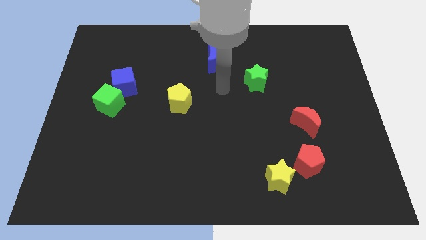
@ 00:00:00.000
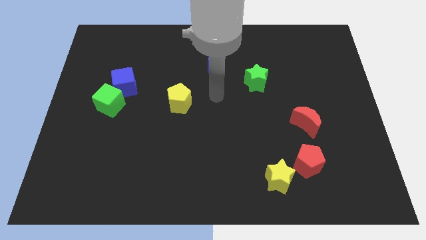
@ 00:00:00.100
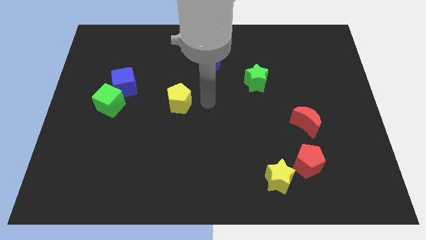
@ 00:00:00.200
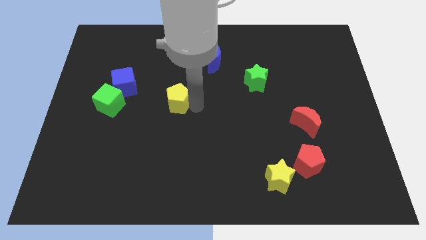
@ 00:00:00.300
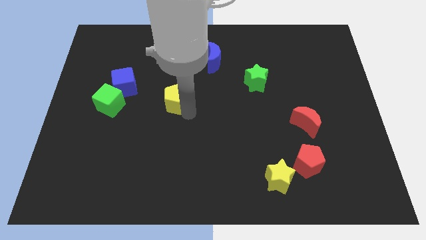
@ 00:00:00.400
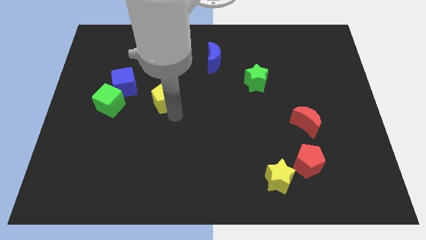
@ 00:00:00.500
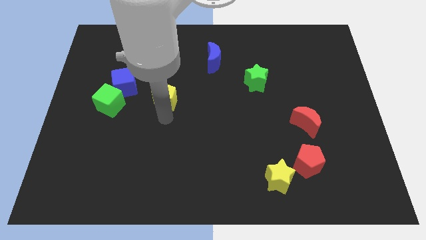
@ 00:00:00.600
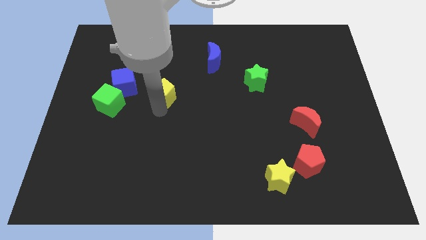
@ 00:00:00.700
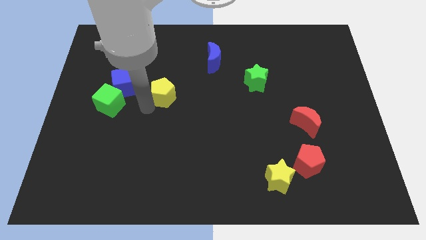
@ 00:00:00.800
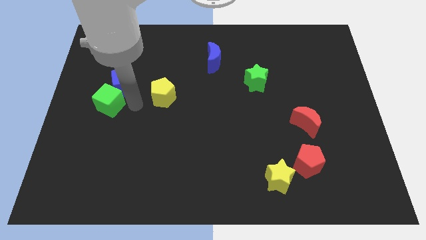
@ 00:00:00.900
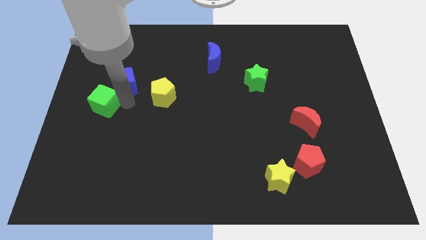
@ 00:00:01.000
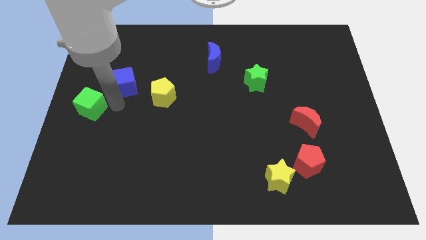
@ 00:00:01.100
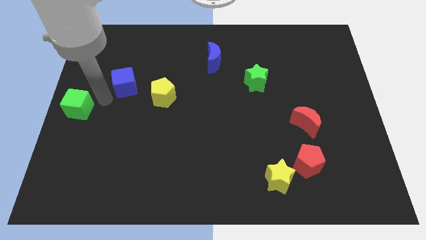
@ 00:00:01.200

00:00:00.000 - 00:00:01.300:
separate the blue cube from the green cube

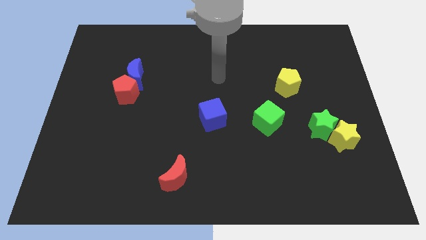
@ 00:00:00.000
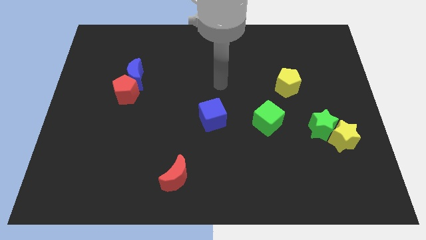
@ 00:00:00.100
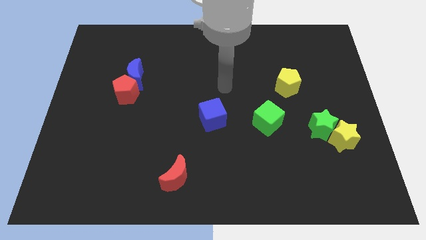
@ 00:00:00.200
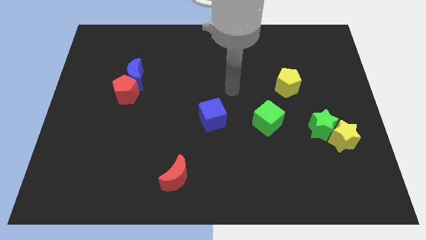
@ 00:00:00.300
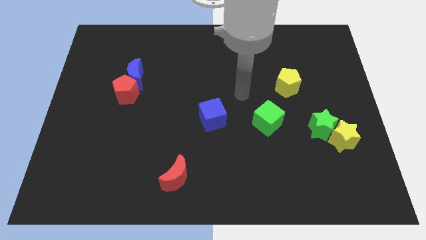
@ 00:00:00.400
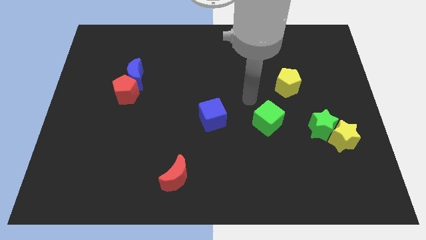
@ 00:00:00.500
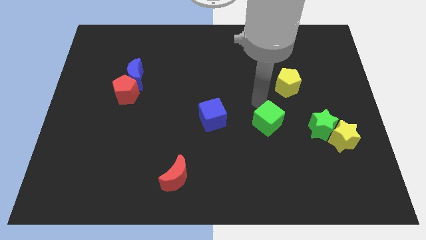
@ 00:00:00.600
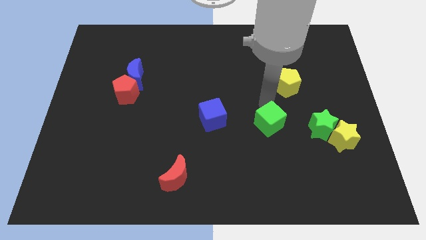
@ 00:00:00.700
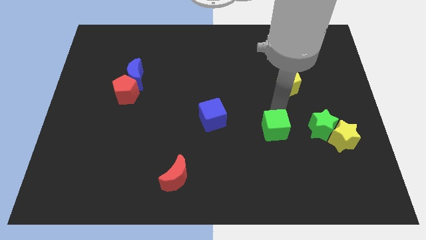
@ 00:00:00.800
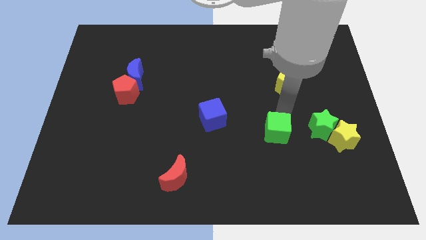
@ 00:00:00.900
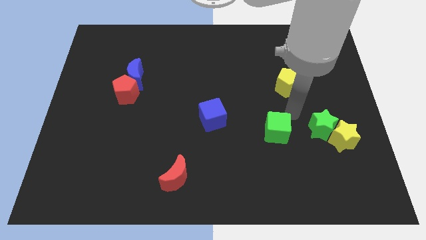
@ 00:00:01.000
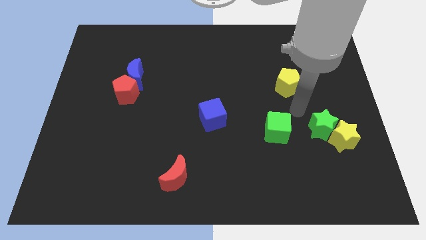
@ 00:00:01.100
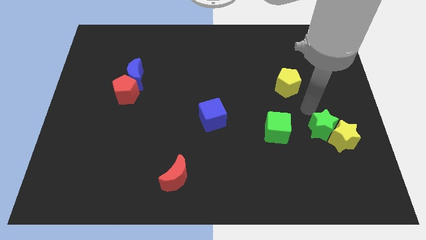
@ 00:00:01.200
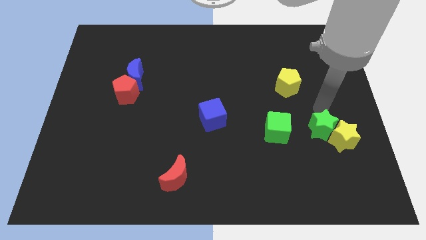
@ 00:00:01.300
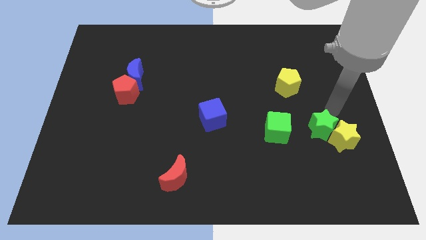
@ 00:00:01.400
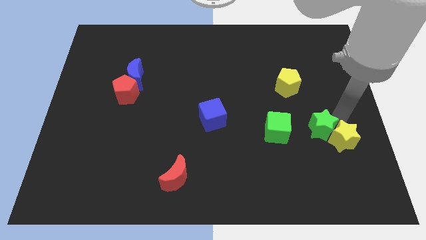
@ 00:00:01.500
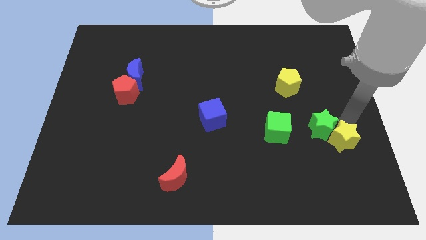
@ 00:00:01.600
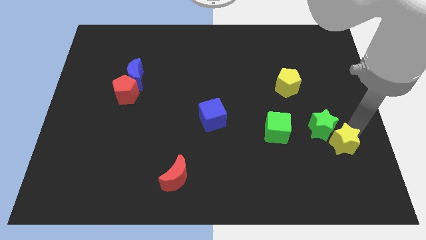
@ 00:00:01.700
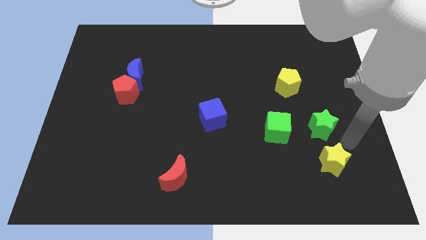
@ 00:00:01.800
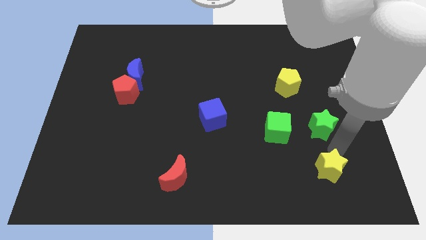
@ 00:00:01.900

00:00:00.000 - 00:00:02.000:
move the green star away from the yellow star

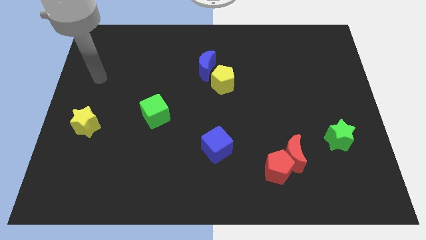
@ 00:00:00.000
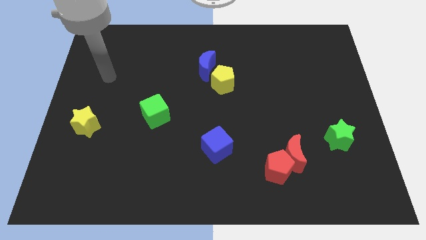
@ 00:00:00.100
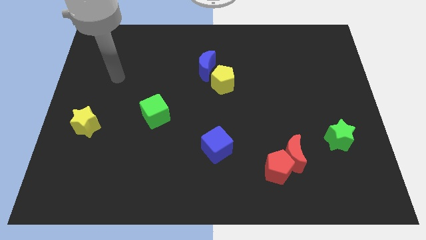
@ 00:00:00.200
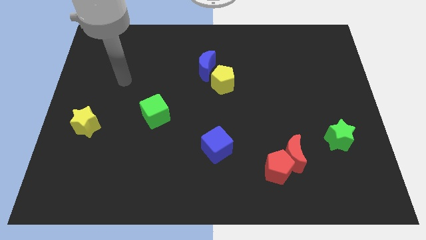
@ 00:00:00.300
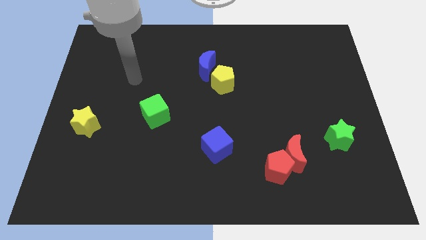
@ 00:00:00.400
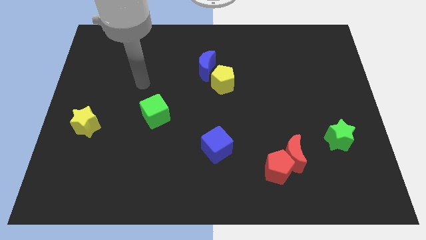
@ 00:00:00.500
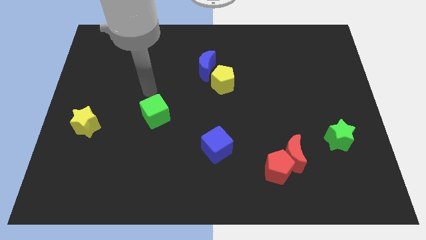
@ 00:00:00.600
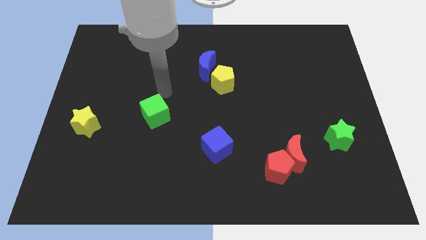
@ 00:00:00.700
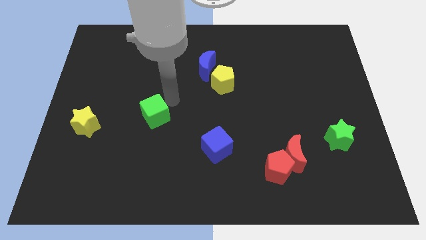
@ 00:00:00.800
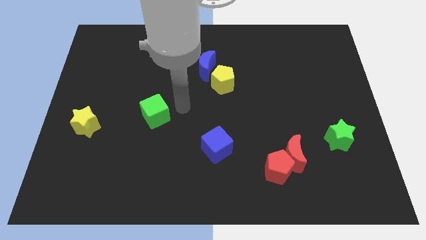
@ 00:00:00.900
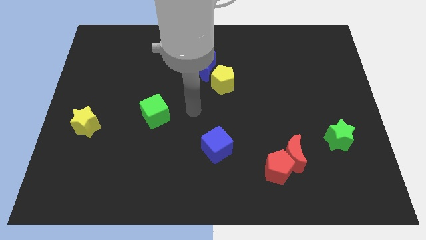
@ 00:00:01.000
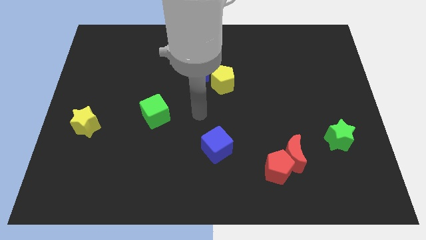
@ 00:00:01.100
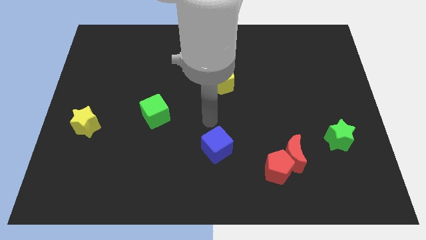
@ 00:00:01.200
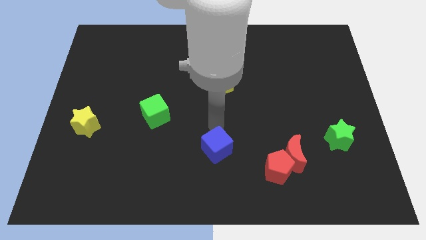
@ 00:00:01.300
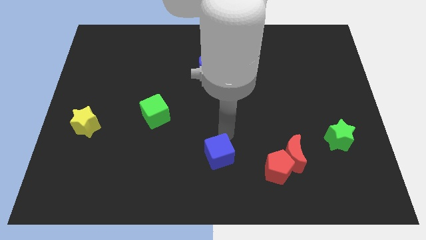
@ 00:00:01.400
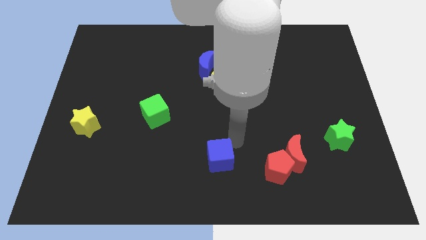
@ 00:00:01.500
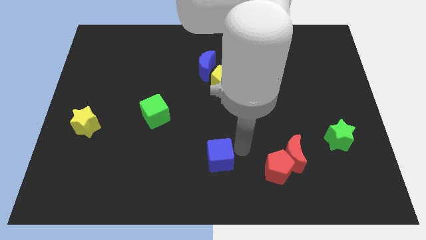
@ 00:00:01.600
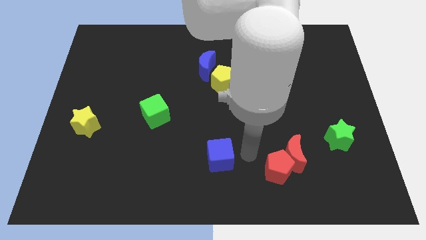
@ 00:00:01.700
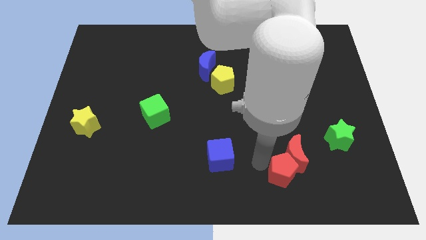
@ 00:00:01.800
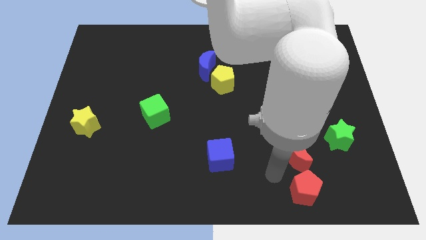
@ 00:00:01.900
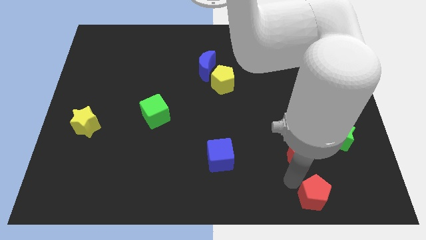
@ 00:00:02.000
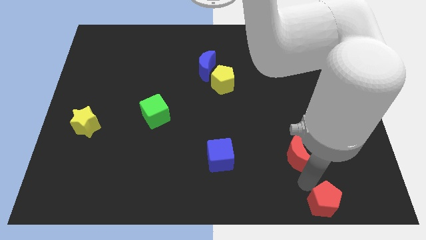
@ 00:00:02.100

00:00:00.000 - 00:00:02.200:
move the red moon away from the red pentagon

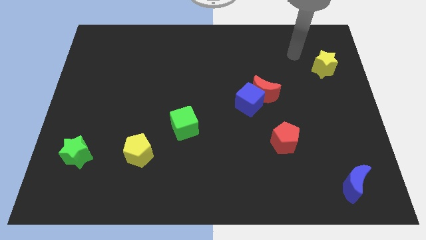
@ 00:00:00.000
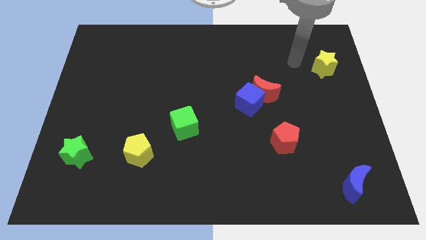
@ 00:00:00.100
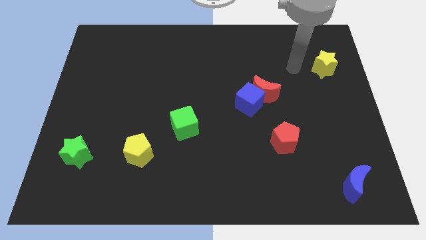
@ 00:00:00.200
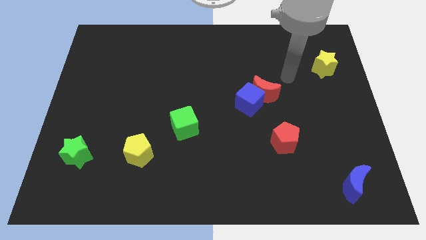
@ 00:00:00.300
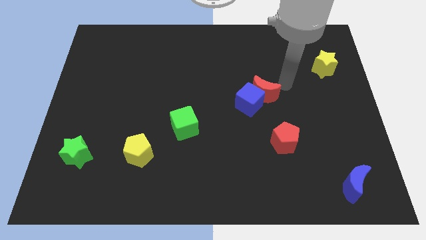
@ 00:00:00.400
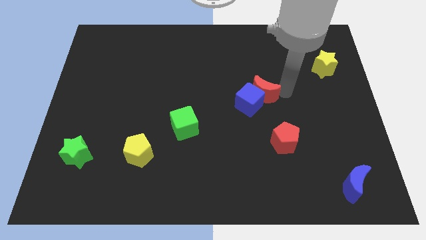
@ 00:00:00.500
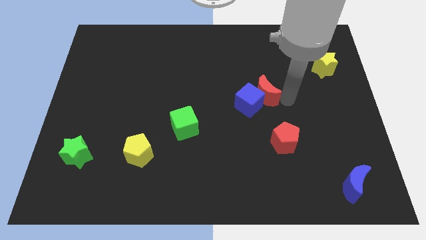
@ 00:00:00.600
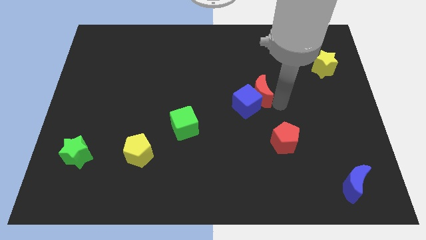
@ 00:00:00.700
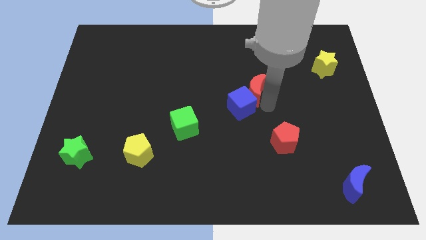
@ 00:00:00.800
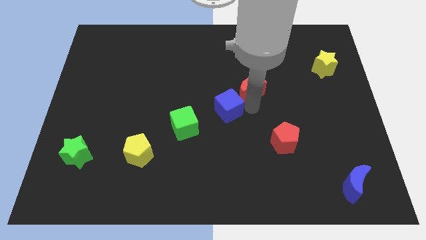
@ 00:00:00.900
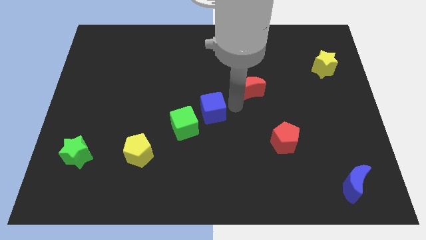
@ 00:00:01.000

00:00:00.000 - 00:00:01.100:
separate the red moon from the blue cube

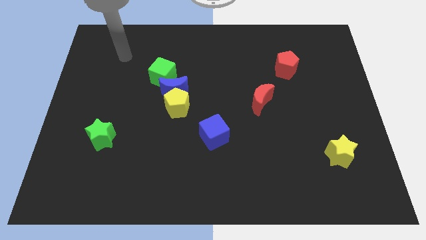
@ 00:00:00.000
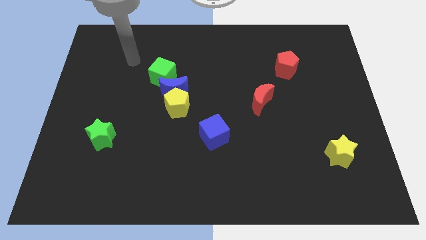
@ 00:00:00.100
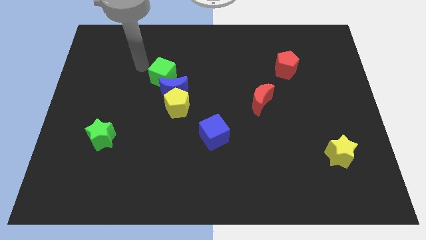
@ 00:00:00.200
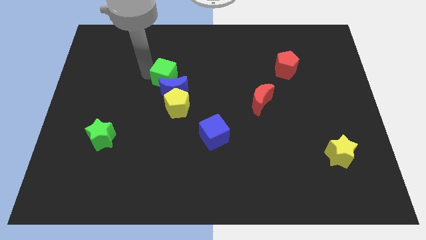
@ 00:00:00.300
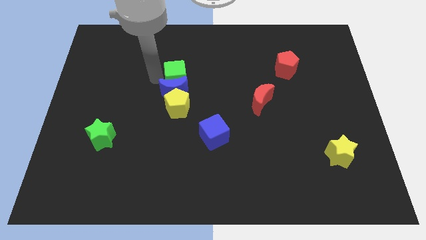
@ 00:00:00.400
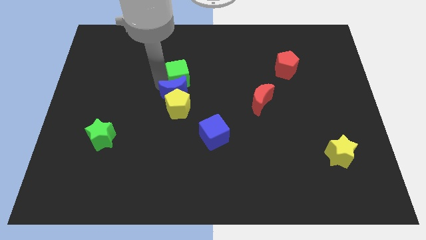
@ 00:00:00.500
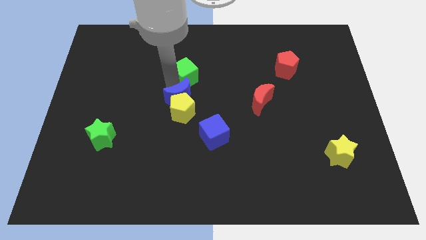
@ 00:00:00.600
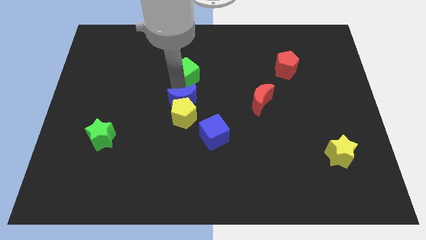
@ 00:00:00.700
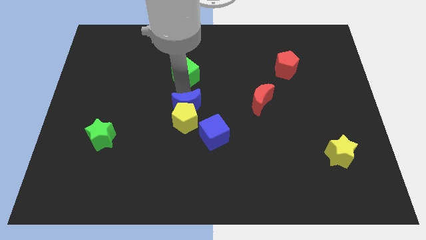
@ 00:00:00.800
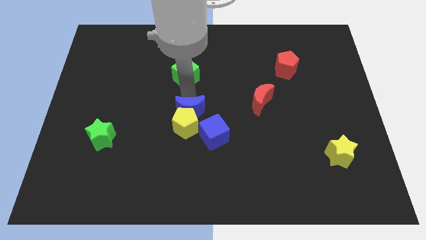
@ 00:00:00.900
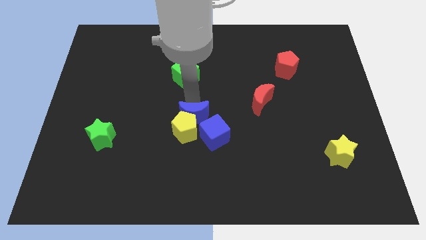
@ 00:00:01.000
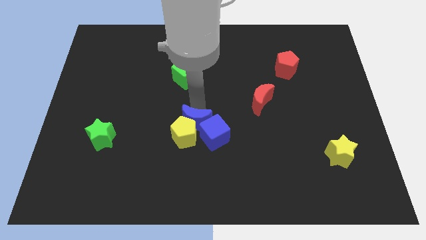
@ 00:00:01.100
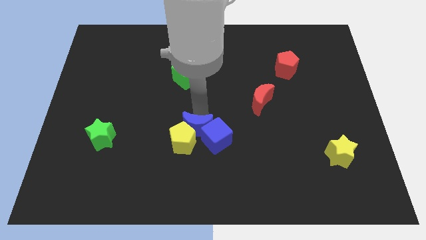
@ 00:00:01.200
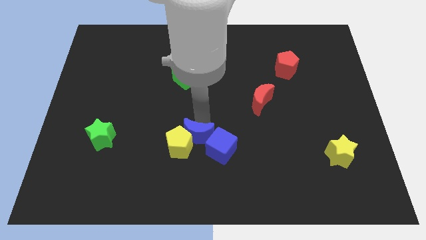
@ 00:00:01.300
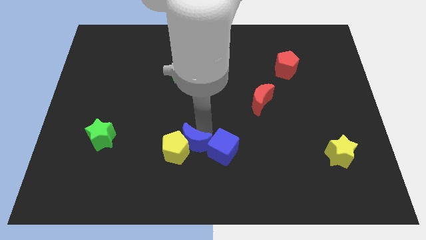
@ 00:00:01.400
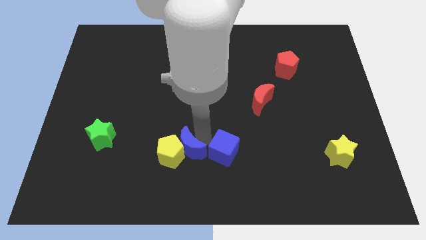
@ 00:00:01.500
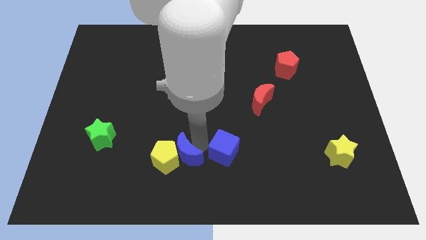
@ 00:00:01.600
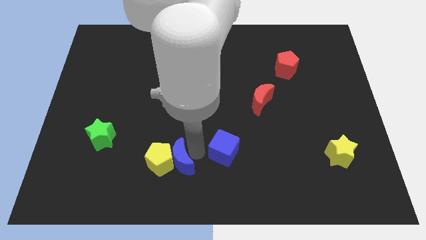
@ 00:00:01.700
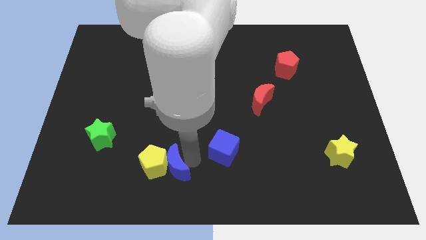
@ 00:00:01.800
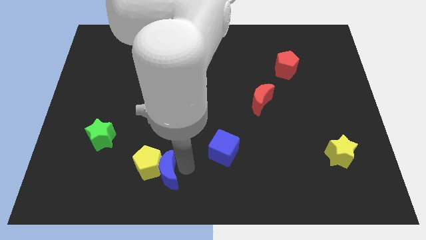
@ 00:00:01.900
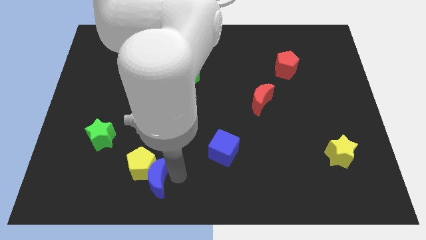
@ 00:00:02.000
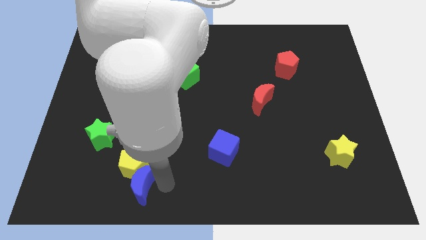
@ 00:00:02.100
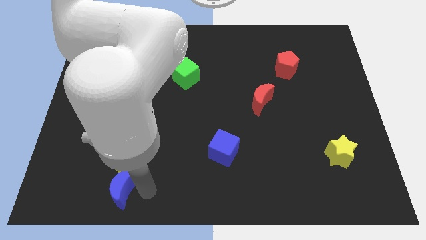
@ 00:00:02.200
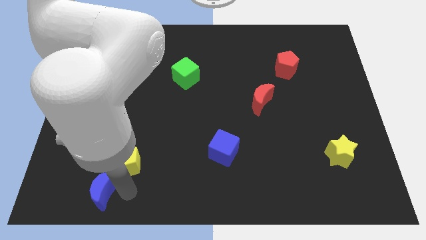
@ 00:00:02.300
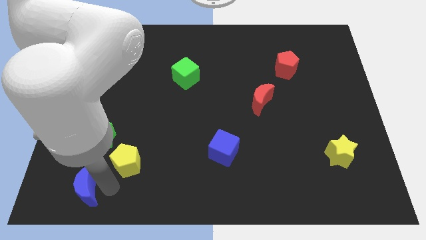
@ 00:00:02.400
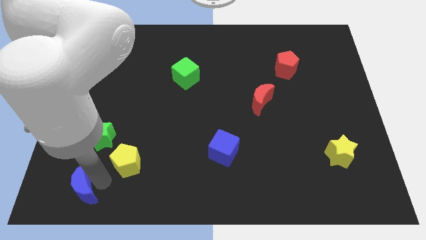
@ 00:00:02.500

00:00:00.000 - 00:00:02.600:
separate the yellow pentagon from the blue moon
